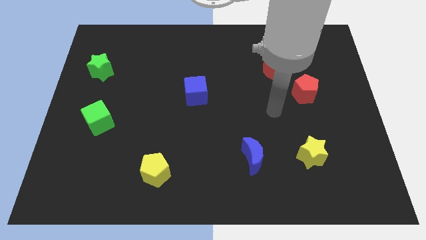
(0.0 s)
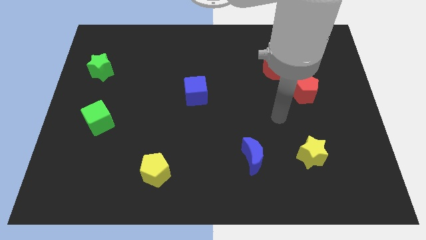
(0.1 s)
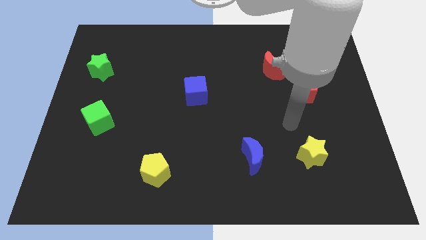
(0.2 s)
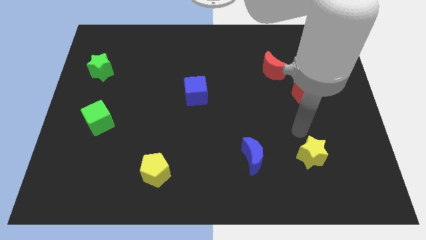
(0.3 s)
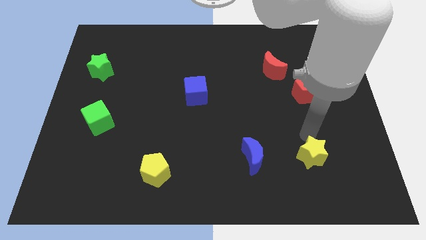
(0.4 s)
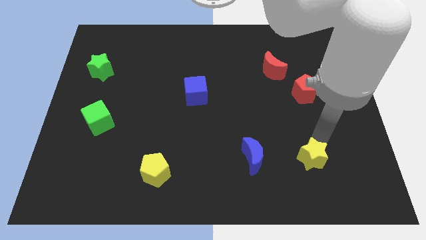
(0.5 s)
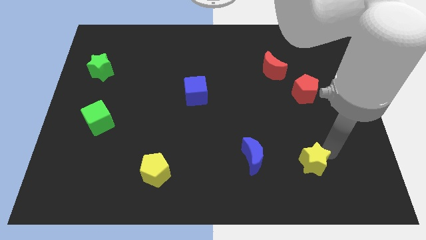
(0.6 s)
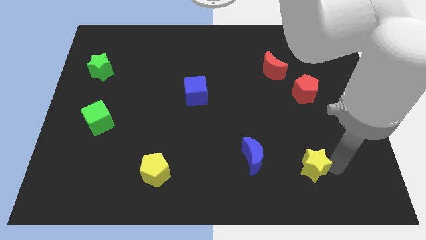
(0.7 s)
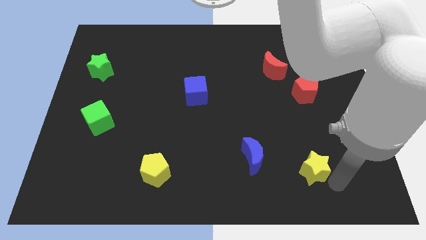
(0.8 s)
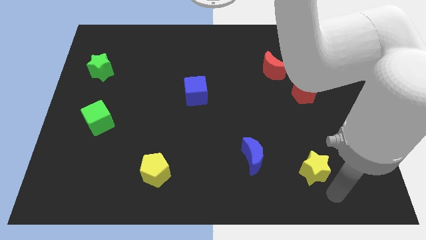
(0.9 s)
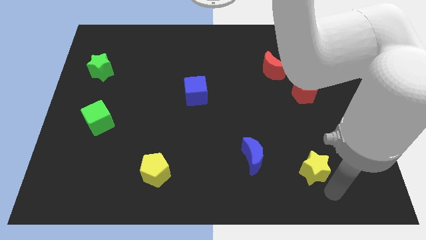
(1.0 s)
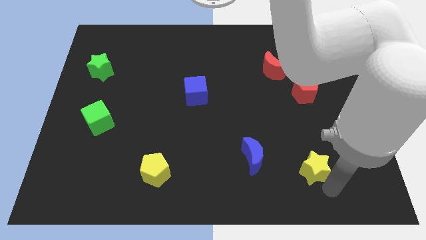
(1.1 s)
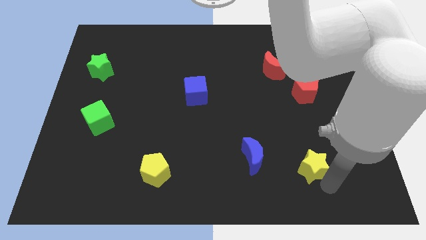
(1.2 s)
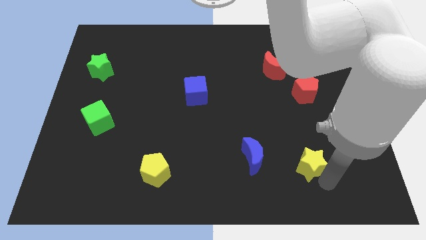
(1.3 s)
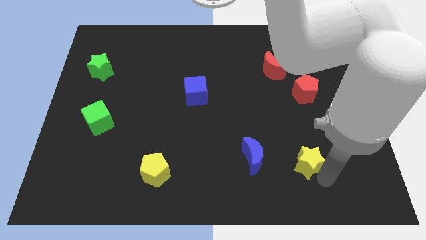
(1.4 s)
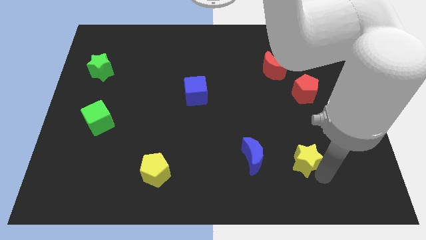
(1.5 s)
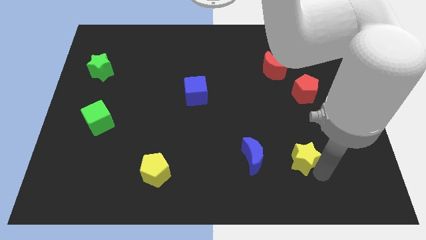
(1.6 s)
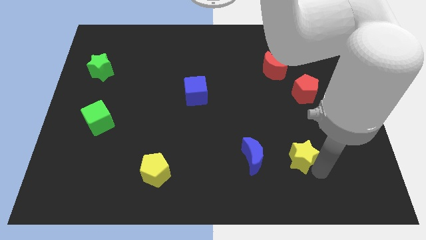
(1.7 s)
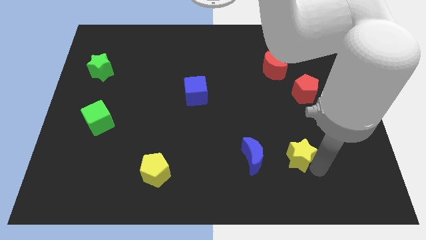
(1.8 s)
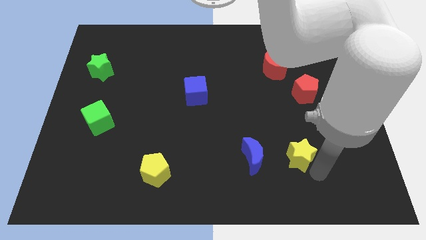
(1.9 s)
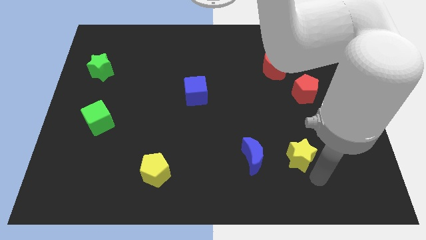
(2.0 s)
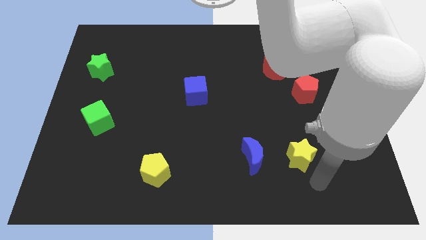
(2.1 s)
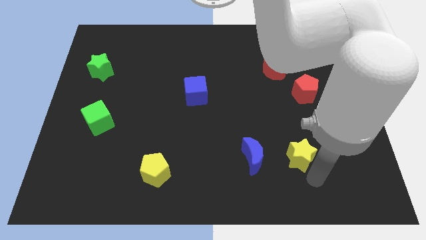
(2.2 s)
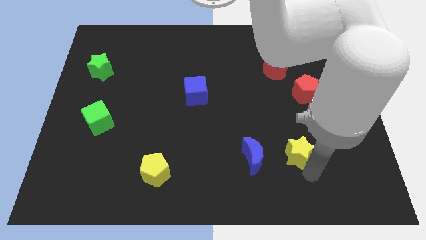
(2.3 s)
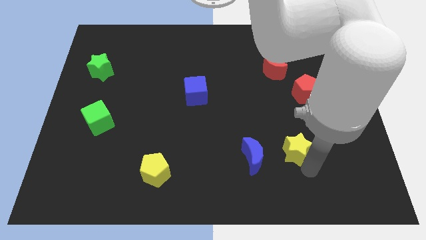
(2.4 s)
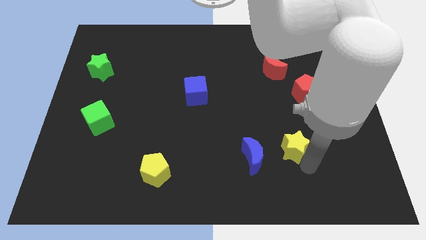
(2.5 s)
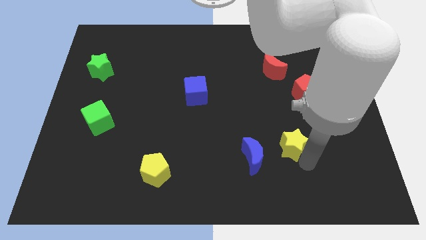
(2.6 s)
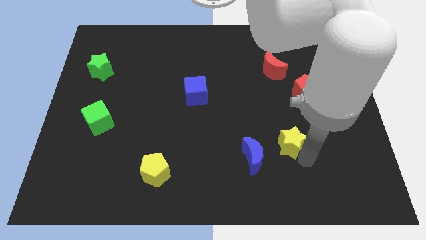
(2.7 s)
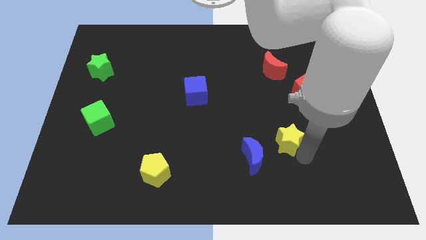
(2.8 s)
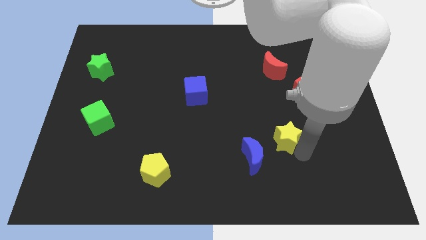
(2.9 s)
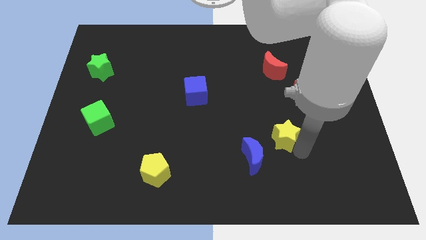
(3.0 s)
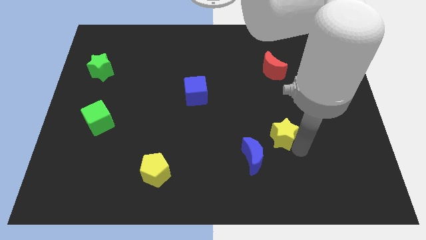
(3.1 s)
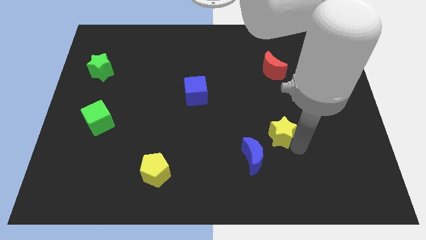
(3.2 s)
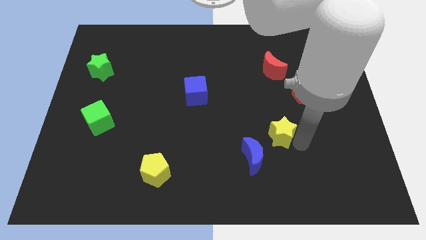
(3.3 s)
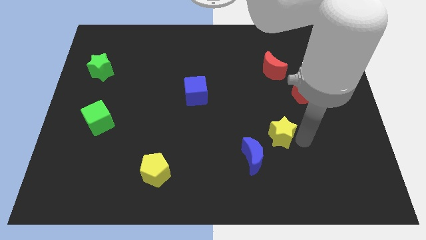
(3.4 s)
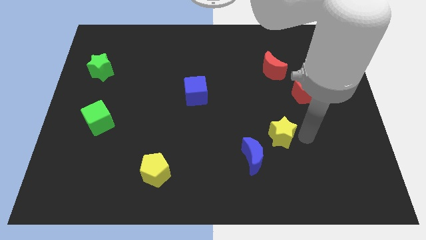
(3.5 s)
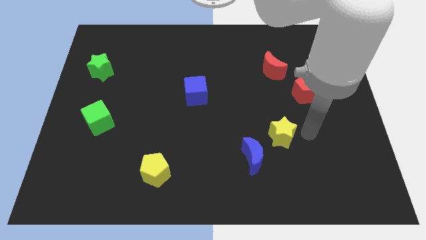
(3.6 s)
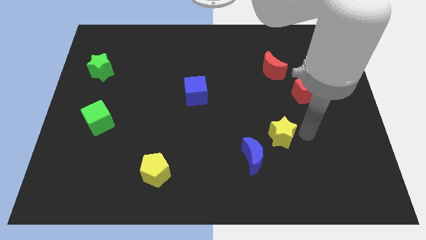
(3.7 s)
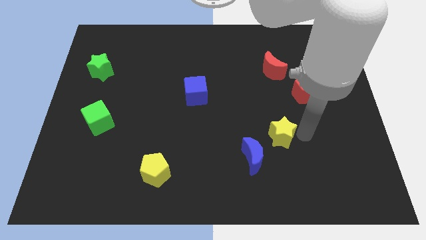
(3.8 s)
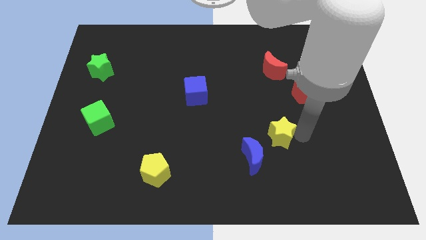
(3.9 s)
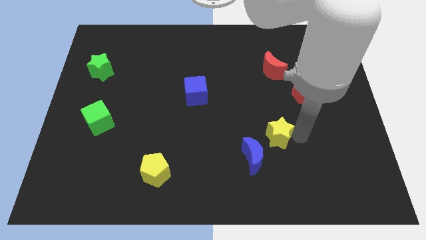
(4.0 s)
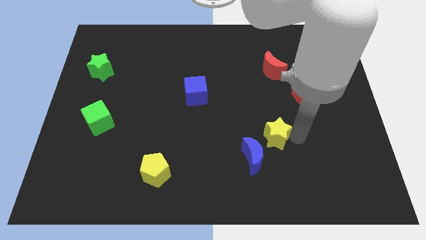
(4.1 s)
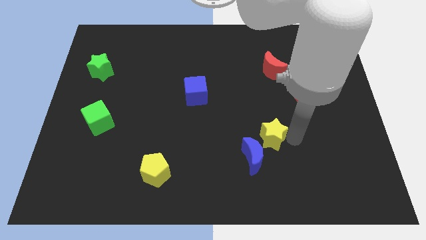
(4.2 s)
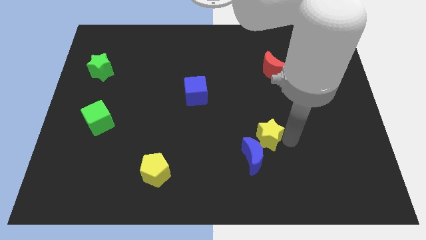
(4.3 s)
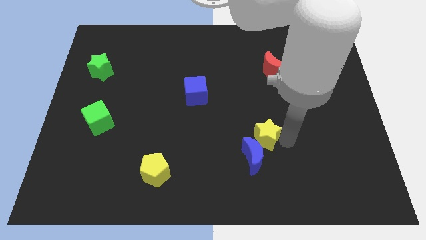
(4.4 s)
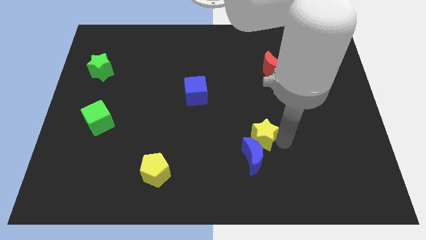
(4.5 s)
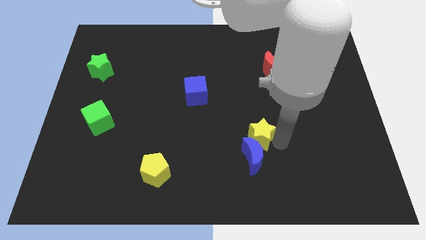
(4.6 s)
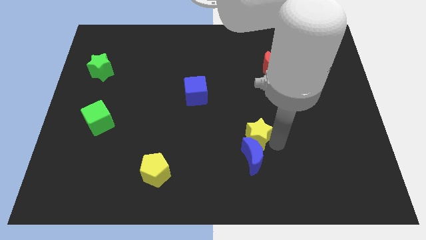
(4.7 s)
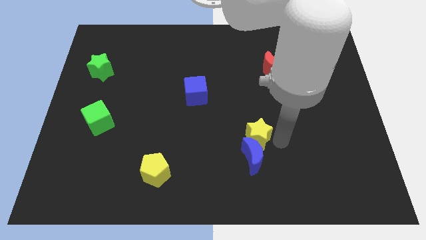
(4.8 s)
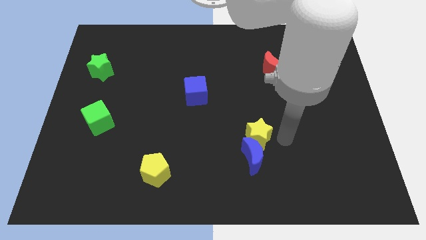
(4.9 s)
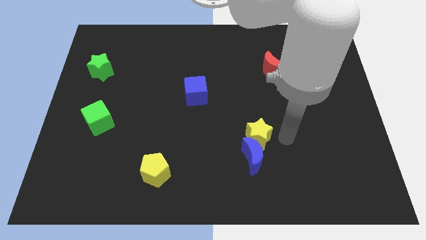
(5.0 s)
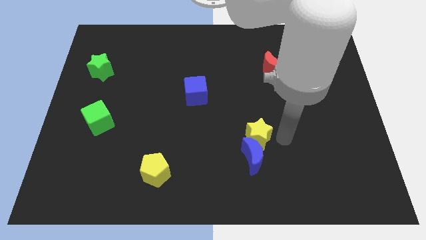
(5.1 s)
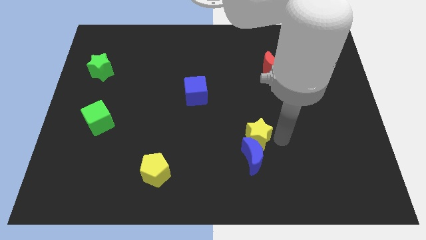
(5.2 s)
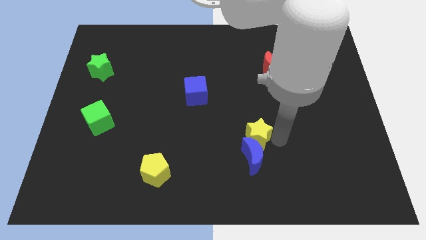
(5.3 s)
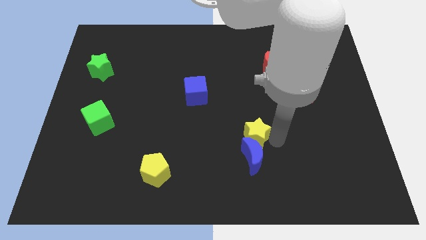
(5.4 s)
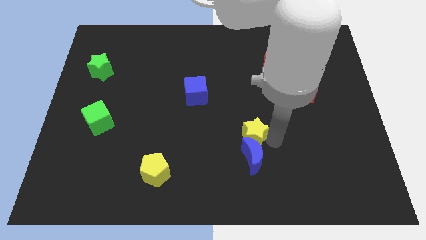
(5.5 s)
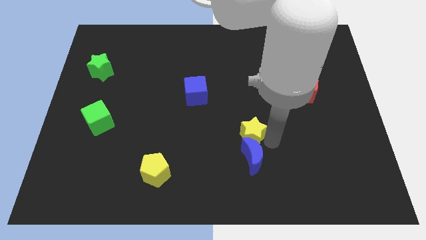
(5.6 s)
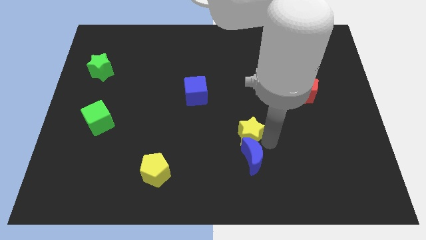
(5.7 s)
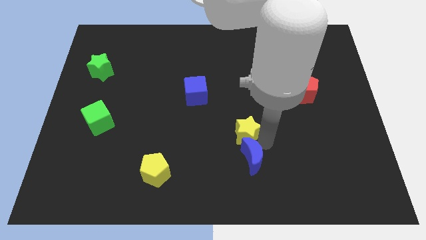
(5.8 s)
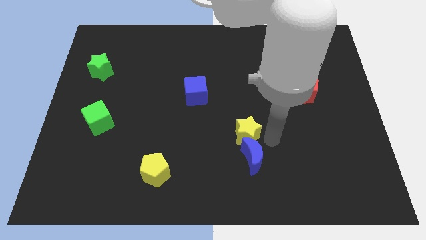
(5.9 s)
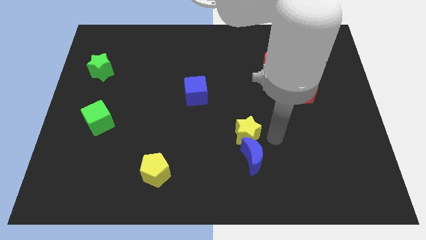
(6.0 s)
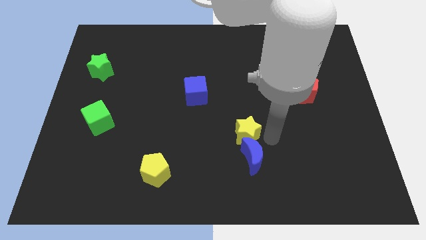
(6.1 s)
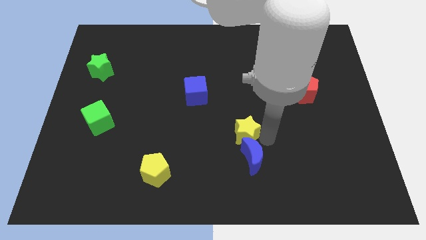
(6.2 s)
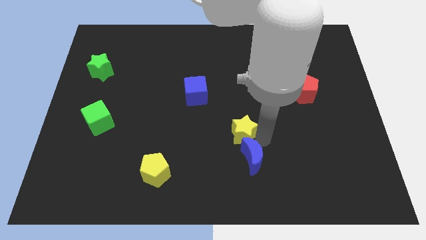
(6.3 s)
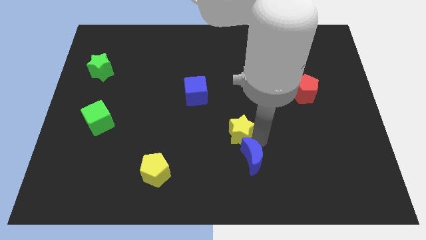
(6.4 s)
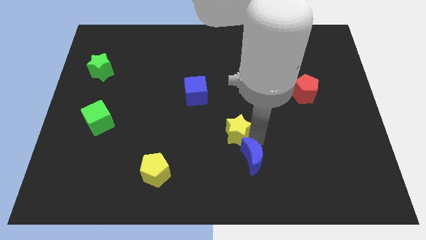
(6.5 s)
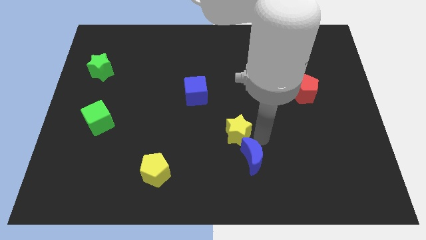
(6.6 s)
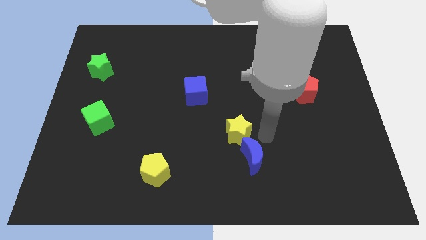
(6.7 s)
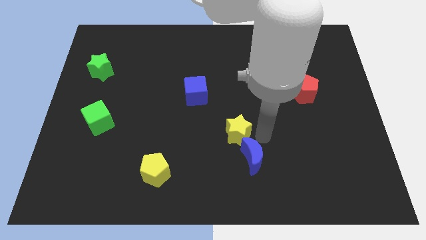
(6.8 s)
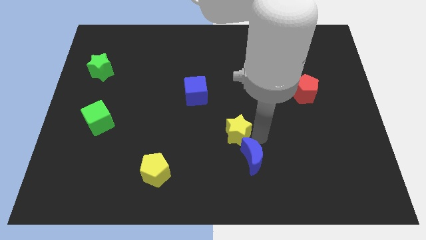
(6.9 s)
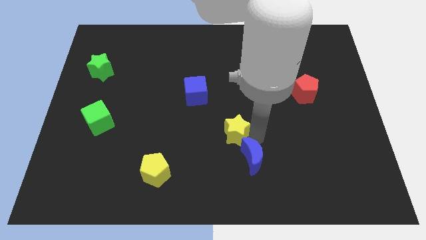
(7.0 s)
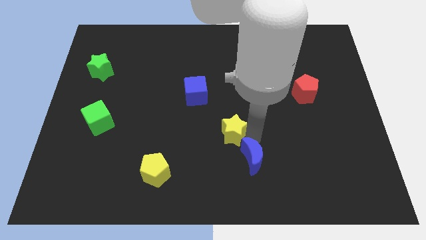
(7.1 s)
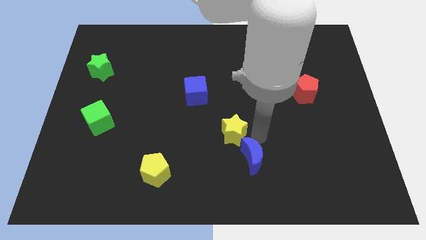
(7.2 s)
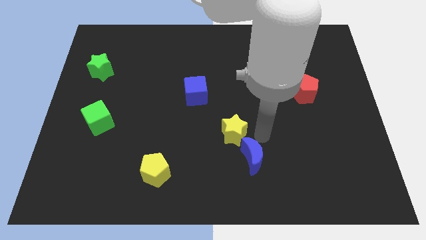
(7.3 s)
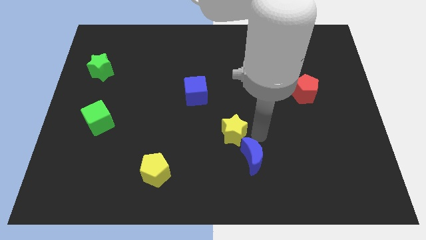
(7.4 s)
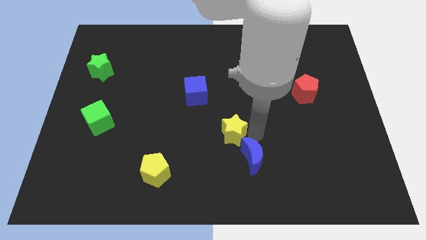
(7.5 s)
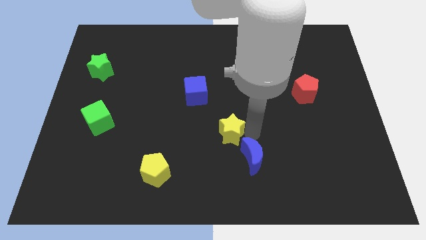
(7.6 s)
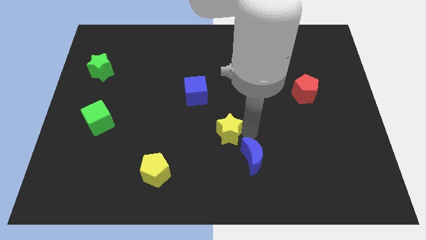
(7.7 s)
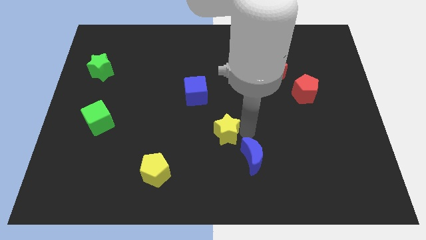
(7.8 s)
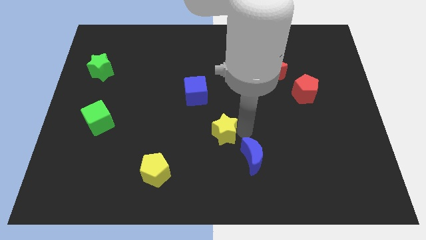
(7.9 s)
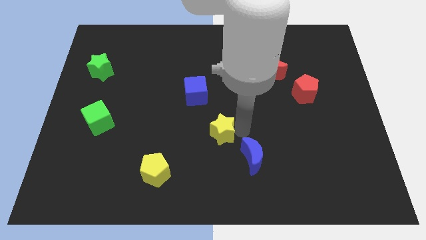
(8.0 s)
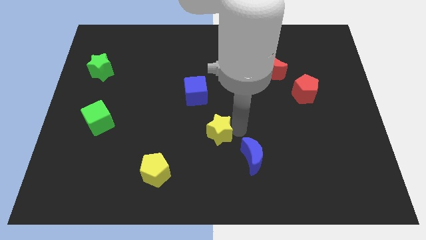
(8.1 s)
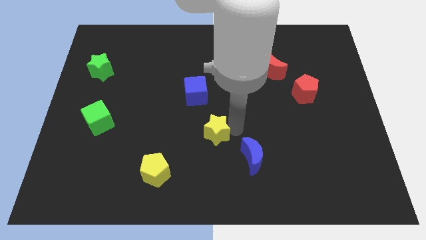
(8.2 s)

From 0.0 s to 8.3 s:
move the yellow star below the blue cube
